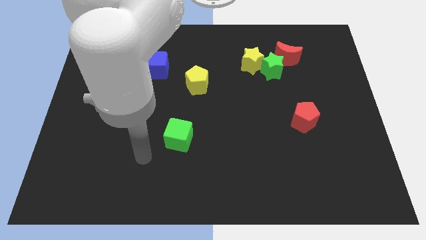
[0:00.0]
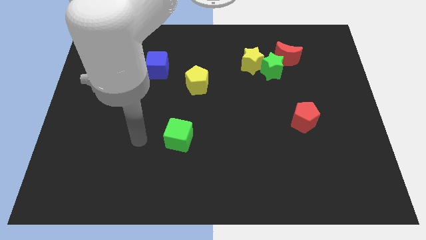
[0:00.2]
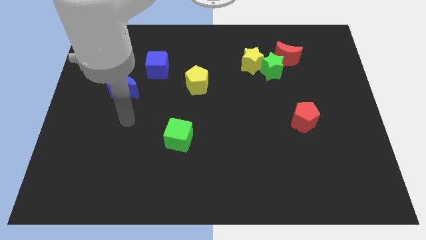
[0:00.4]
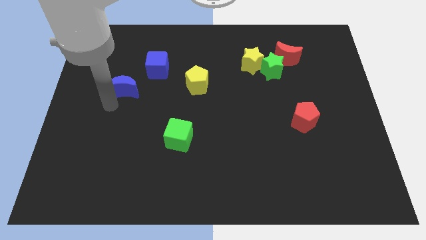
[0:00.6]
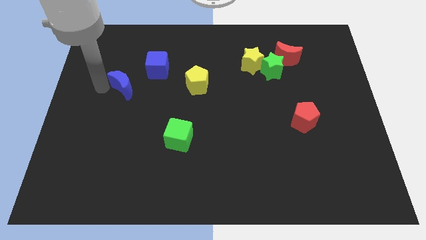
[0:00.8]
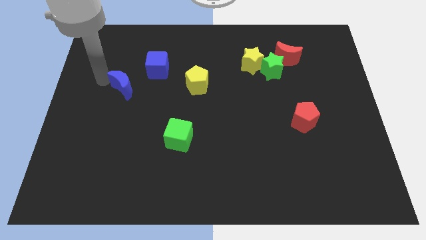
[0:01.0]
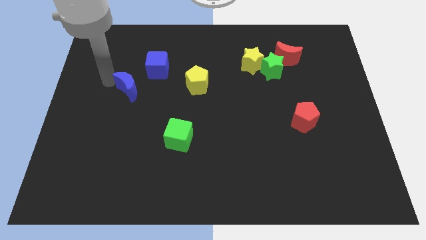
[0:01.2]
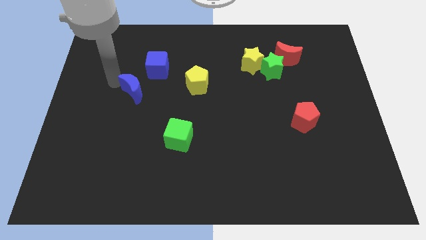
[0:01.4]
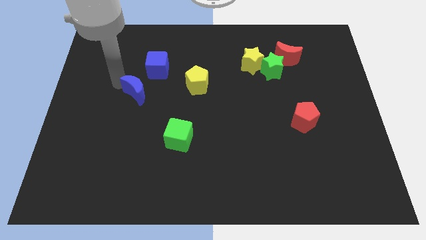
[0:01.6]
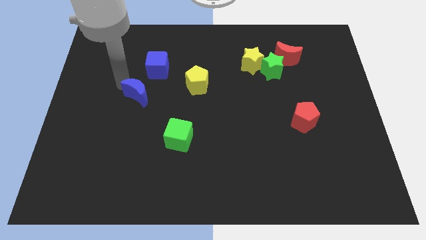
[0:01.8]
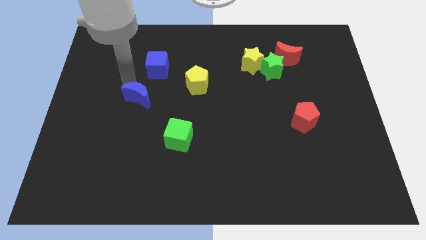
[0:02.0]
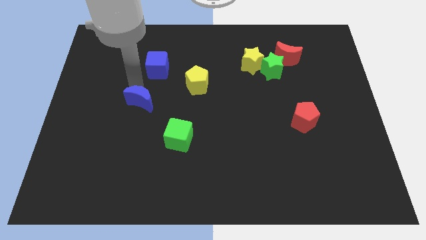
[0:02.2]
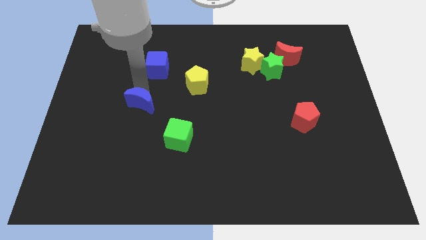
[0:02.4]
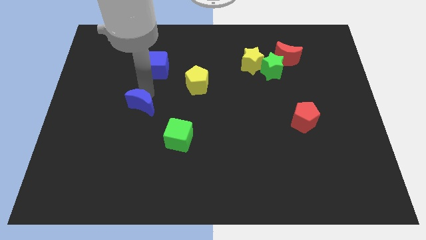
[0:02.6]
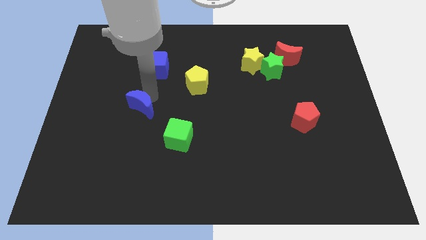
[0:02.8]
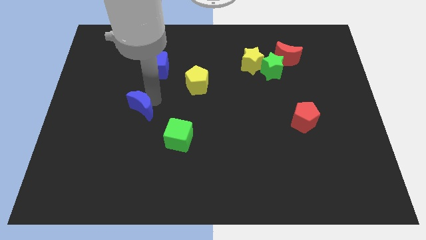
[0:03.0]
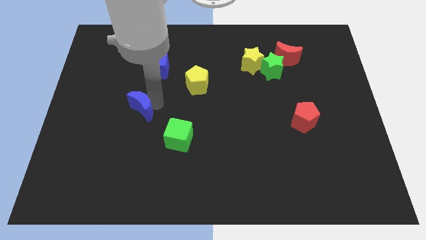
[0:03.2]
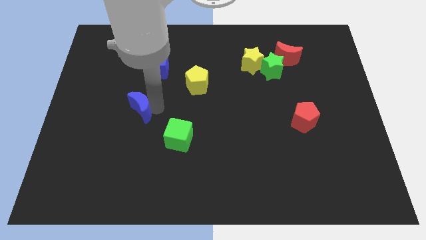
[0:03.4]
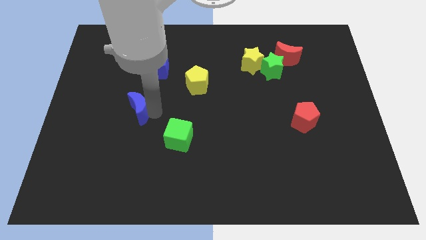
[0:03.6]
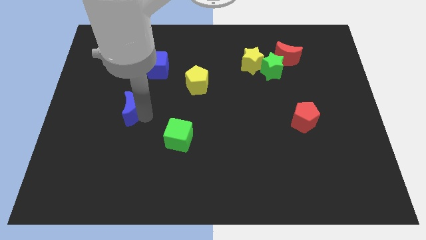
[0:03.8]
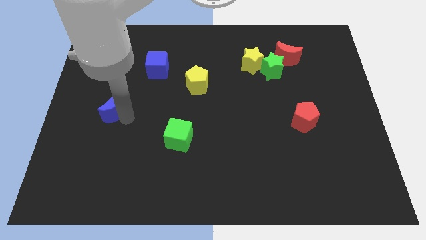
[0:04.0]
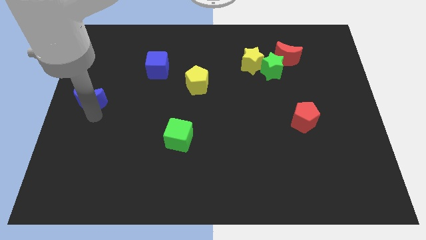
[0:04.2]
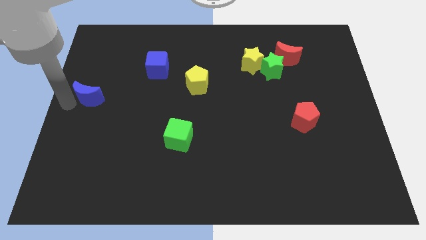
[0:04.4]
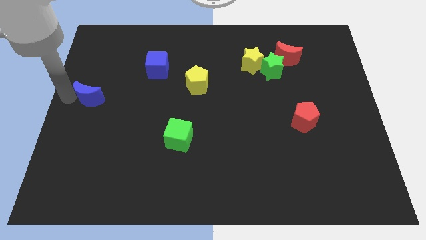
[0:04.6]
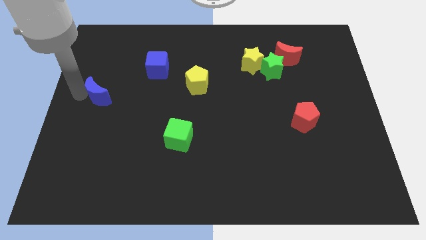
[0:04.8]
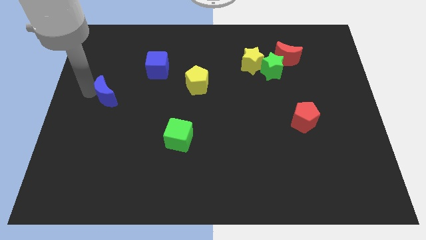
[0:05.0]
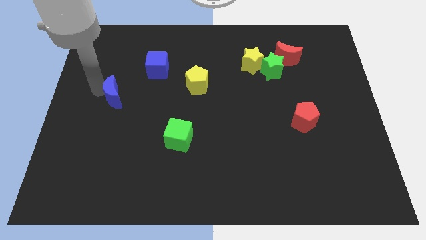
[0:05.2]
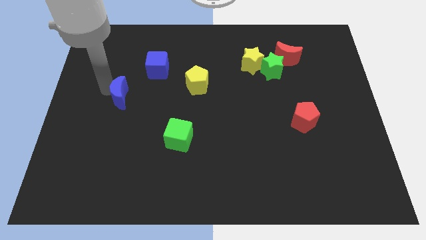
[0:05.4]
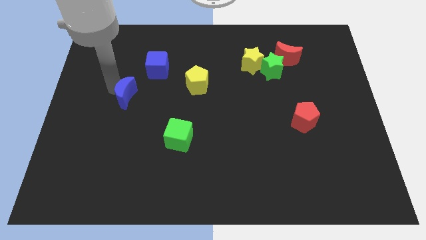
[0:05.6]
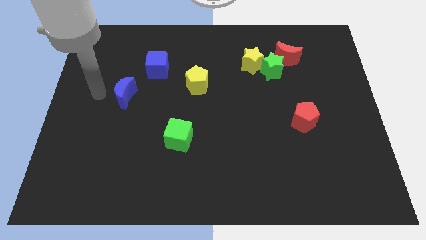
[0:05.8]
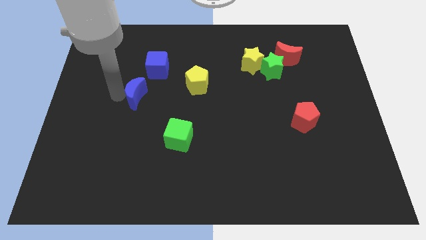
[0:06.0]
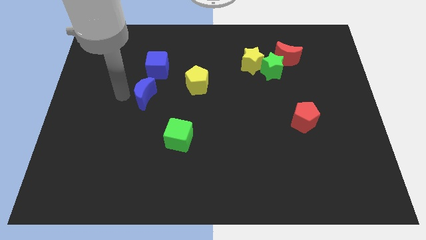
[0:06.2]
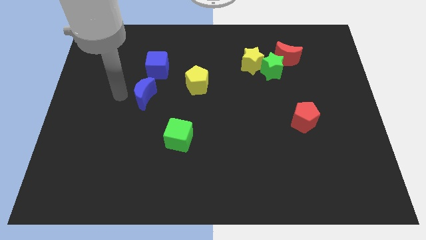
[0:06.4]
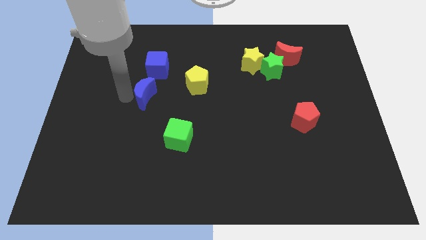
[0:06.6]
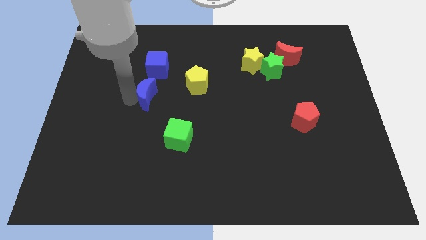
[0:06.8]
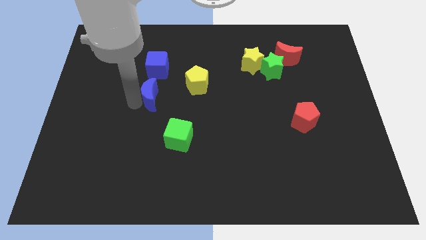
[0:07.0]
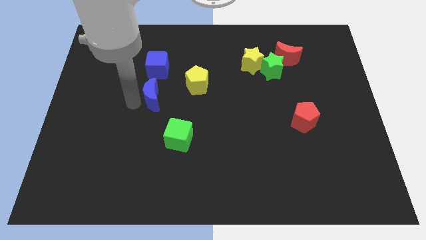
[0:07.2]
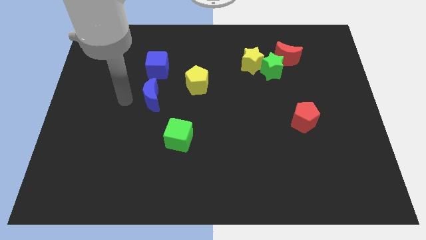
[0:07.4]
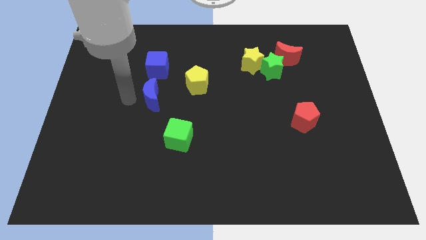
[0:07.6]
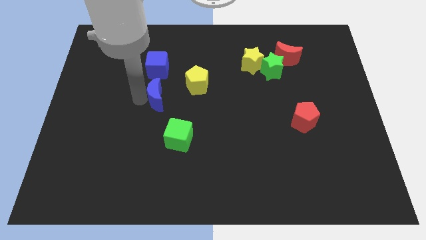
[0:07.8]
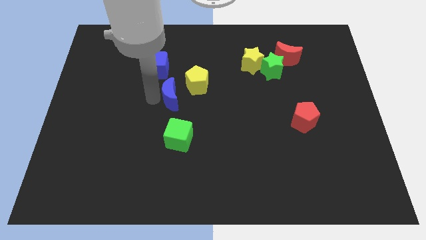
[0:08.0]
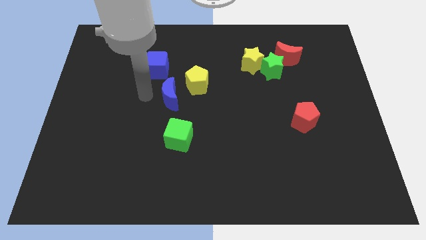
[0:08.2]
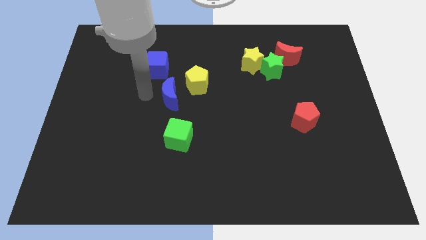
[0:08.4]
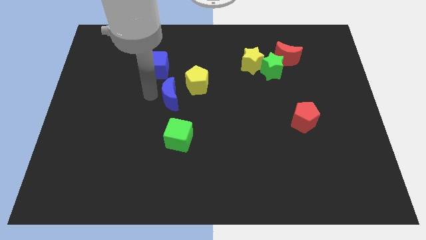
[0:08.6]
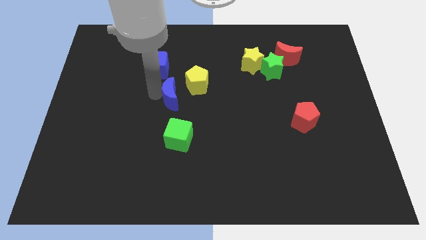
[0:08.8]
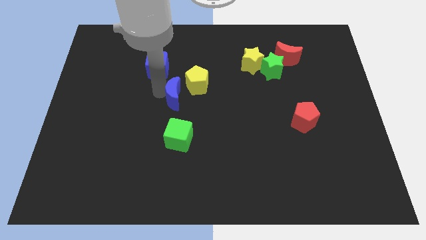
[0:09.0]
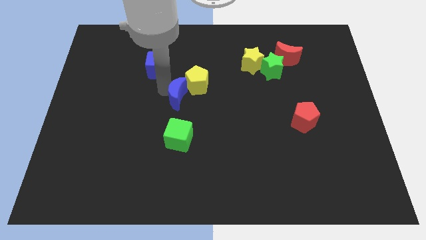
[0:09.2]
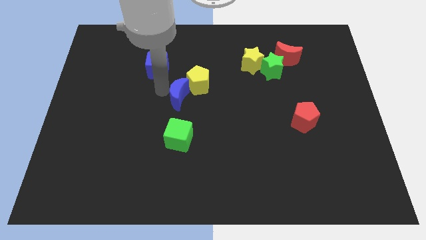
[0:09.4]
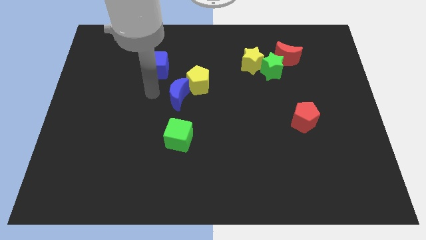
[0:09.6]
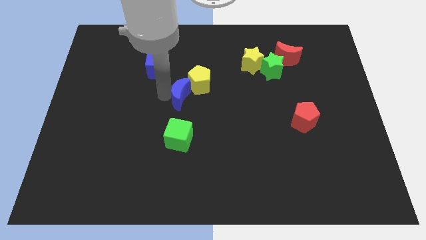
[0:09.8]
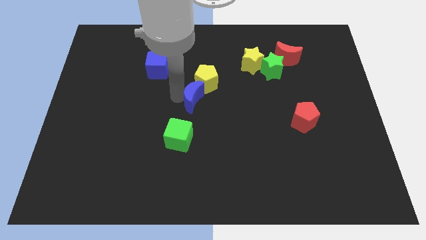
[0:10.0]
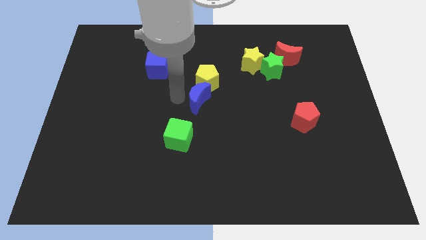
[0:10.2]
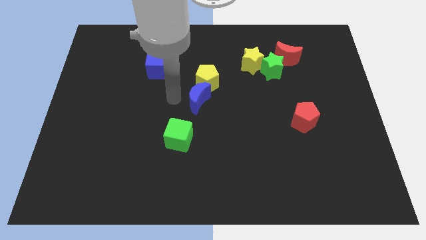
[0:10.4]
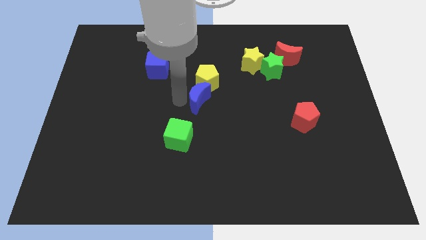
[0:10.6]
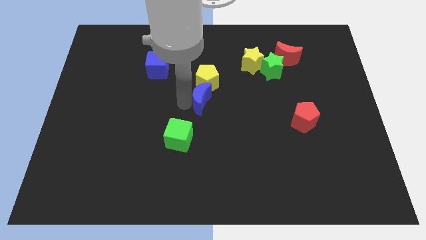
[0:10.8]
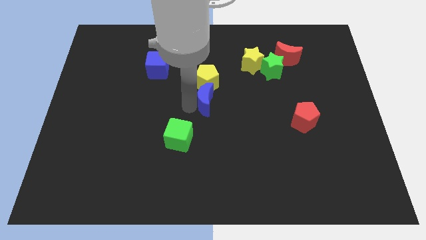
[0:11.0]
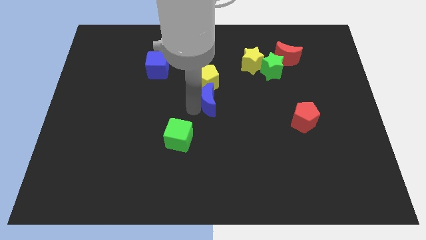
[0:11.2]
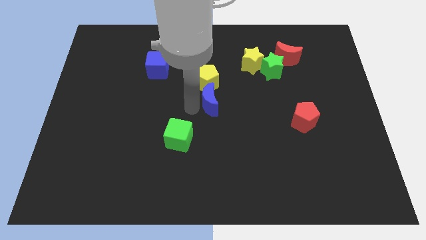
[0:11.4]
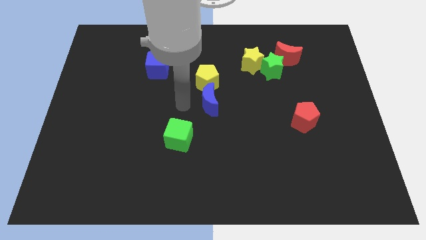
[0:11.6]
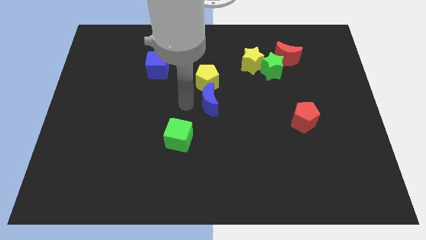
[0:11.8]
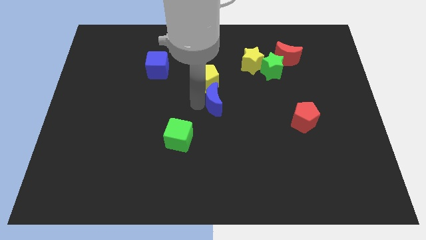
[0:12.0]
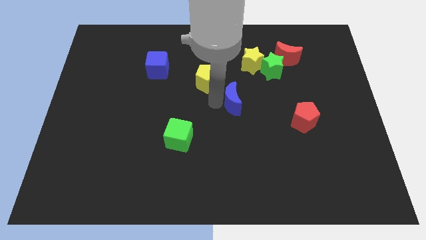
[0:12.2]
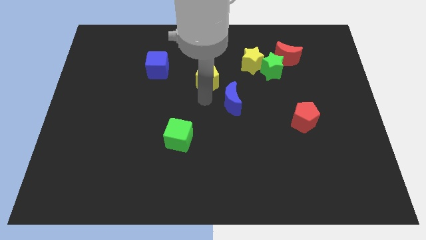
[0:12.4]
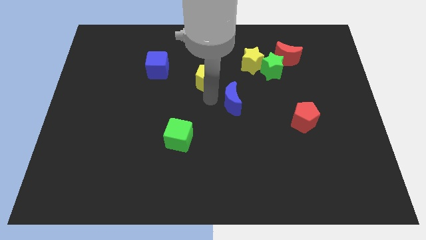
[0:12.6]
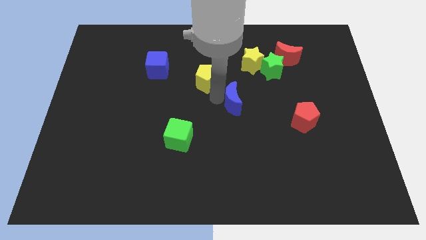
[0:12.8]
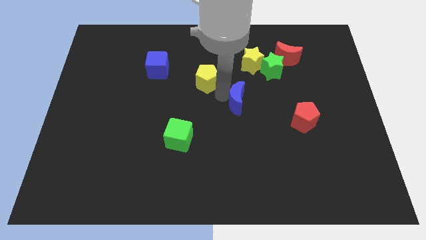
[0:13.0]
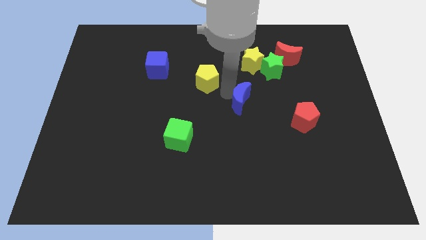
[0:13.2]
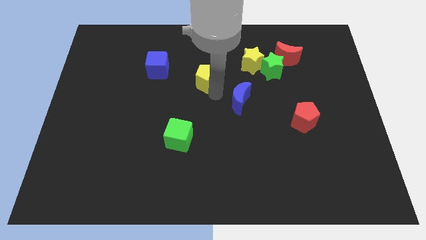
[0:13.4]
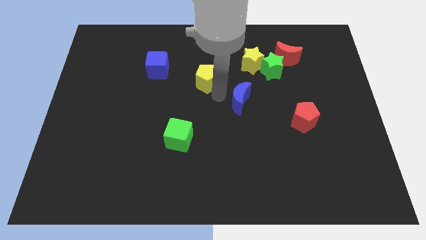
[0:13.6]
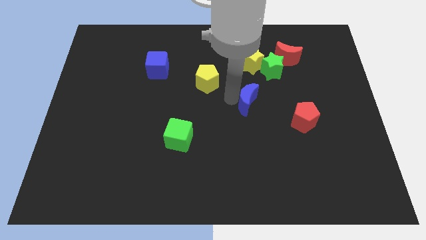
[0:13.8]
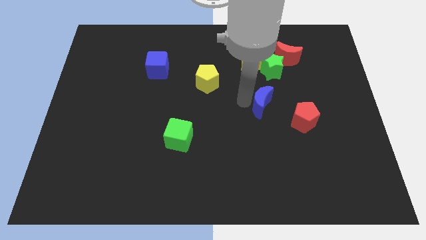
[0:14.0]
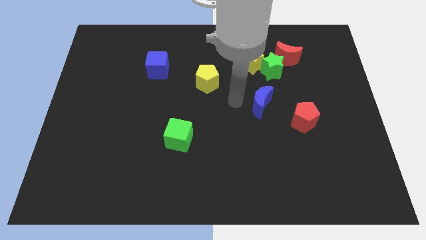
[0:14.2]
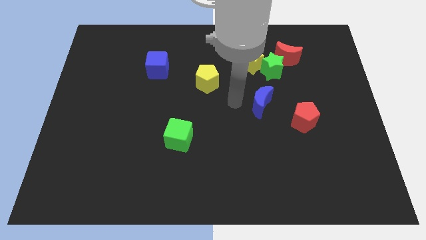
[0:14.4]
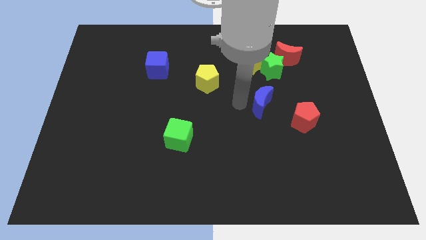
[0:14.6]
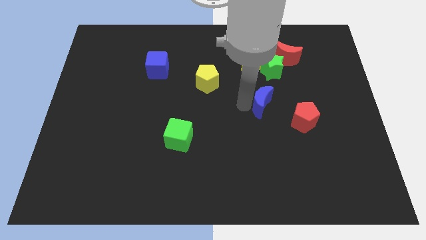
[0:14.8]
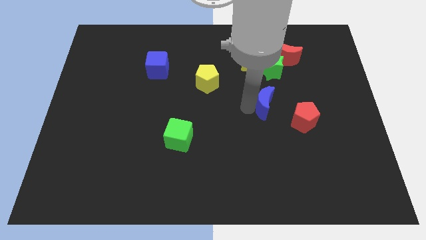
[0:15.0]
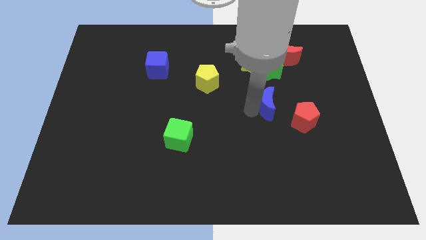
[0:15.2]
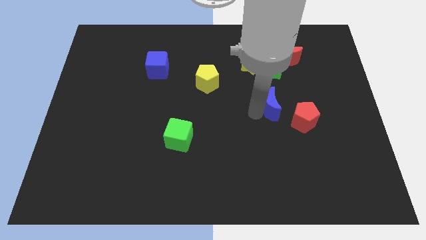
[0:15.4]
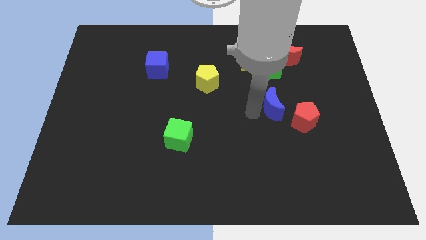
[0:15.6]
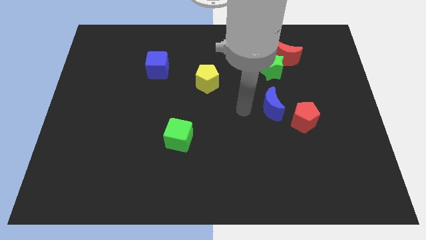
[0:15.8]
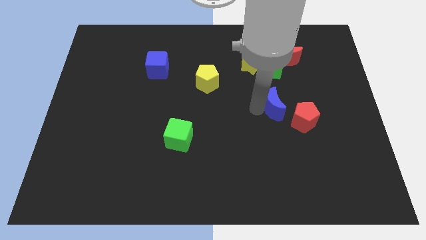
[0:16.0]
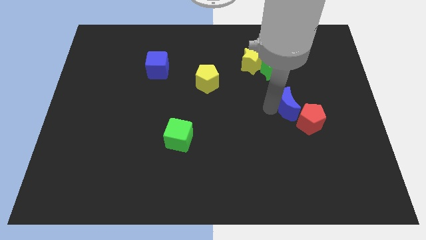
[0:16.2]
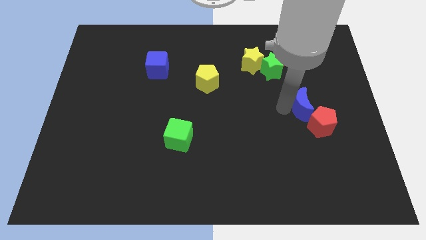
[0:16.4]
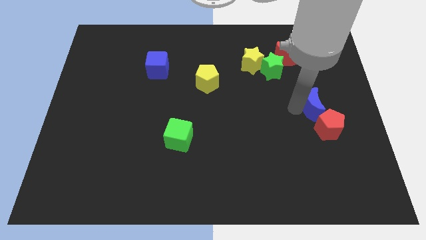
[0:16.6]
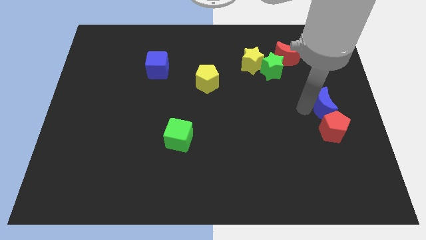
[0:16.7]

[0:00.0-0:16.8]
slide the blue moon to the right side
